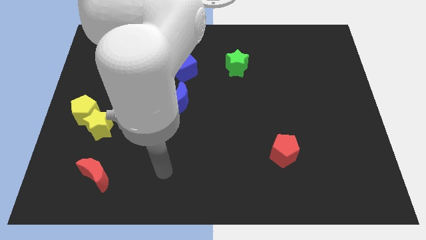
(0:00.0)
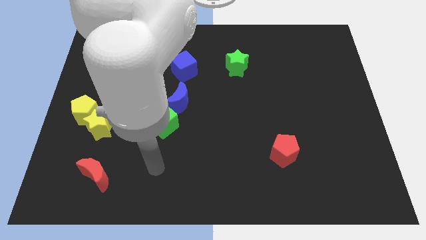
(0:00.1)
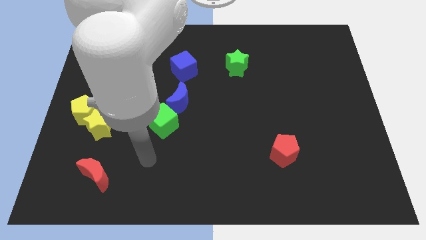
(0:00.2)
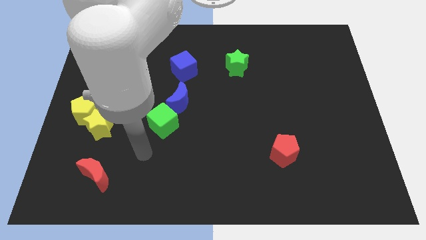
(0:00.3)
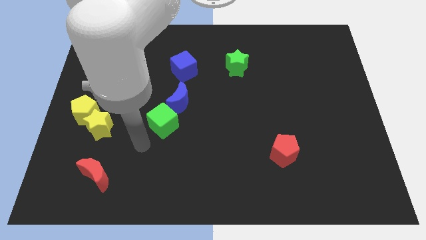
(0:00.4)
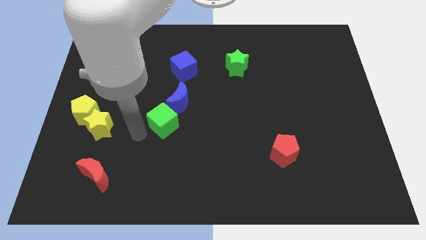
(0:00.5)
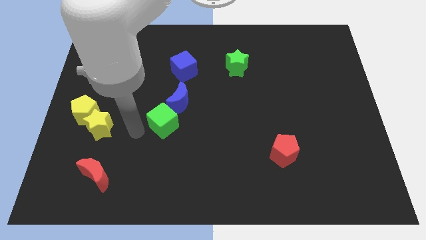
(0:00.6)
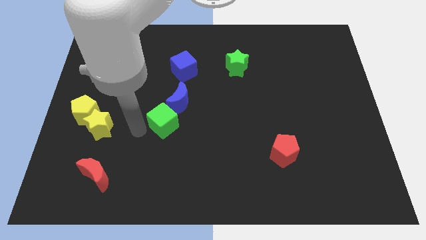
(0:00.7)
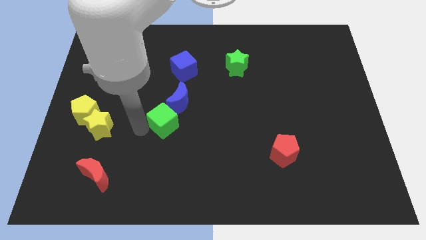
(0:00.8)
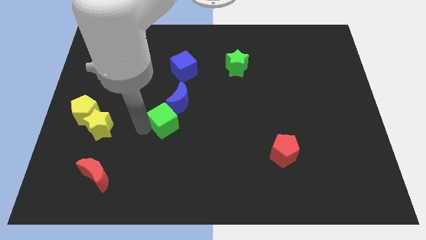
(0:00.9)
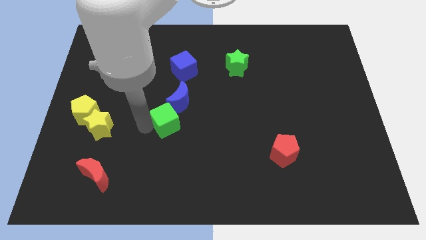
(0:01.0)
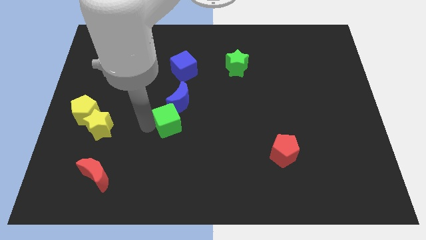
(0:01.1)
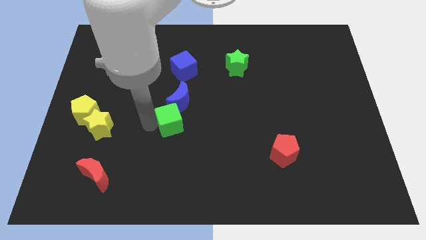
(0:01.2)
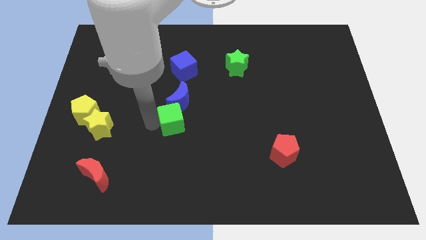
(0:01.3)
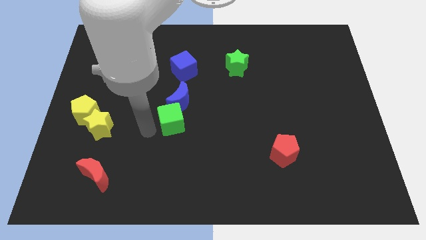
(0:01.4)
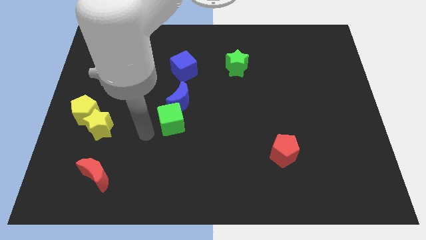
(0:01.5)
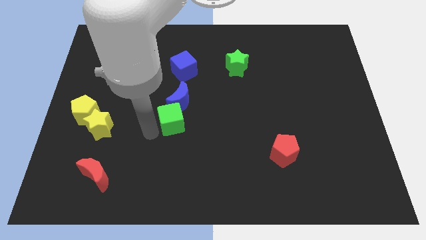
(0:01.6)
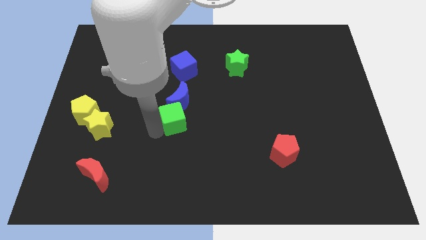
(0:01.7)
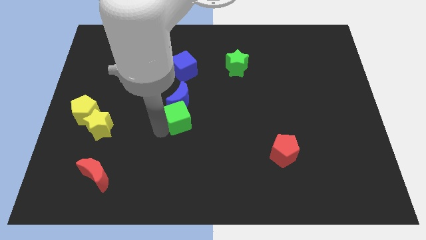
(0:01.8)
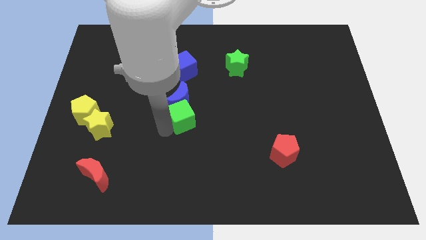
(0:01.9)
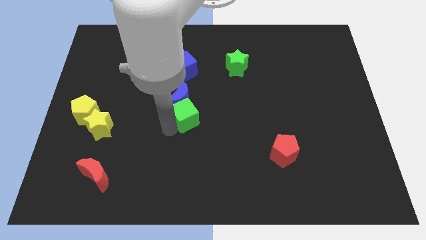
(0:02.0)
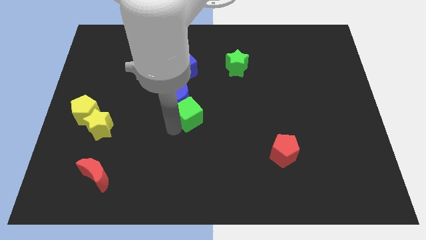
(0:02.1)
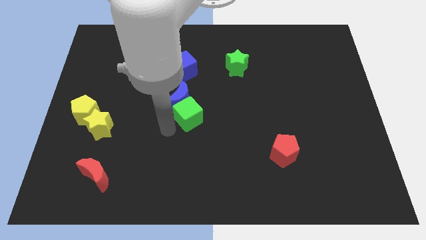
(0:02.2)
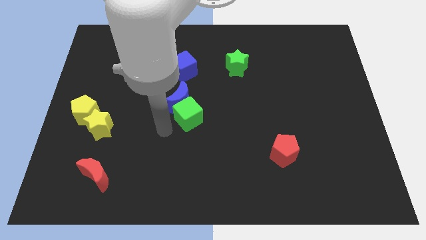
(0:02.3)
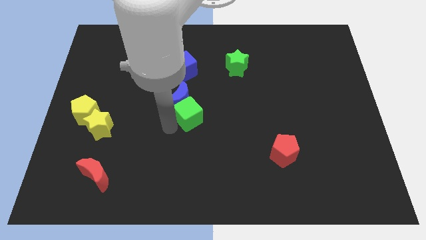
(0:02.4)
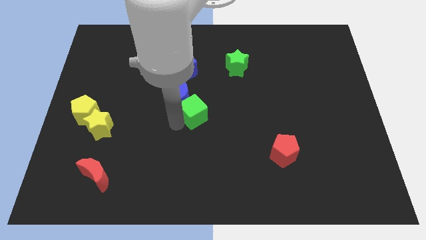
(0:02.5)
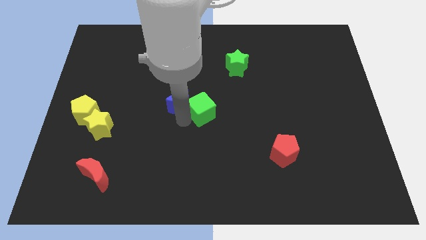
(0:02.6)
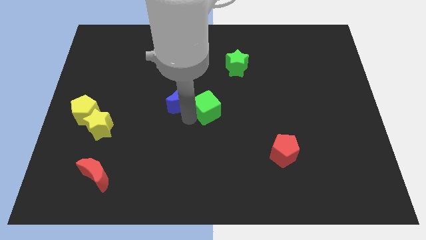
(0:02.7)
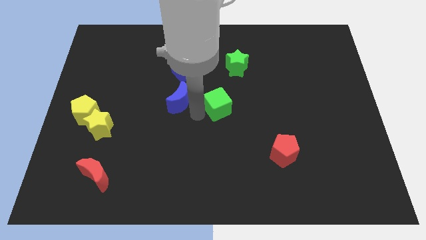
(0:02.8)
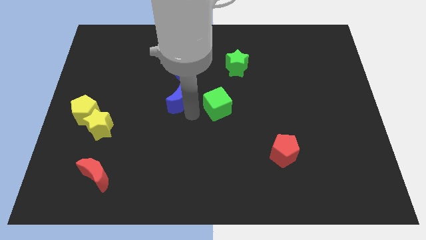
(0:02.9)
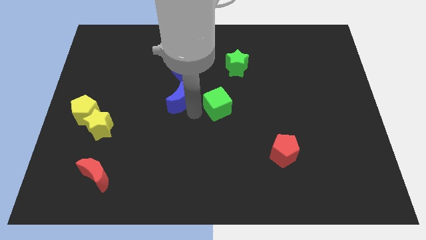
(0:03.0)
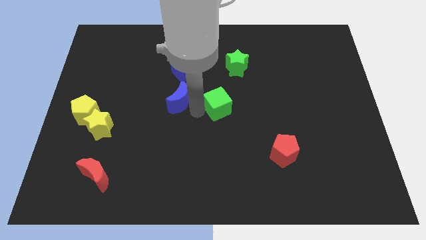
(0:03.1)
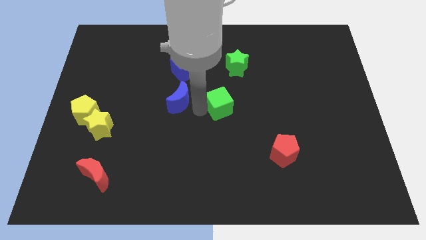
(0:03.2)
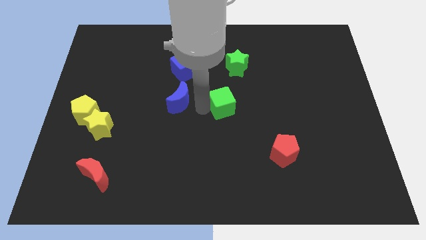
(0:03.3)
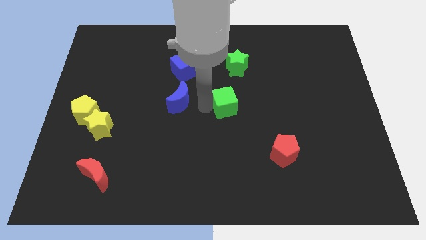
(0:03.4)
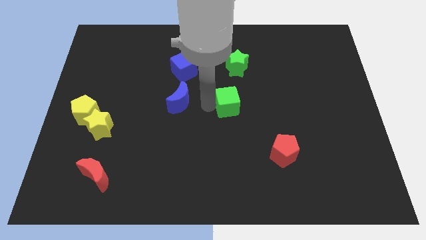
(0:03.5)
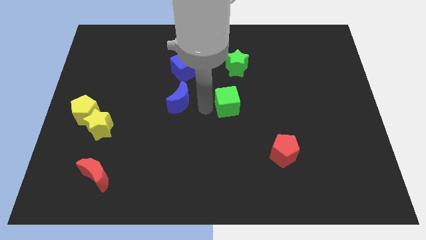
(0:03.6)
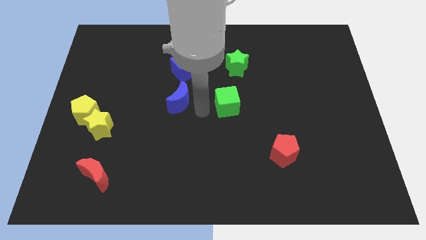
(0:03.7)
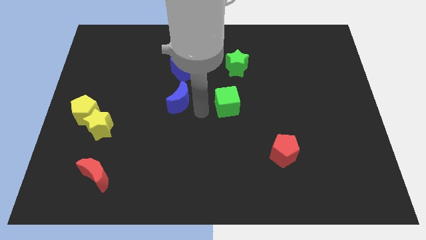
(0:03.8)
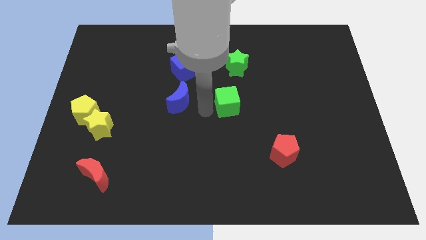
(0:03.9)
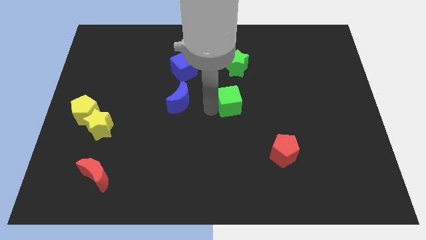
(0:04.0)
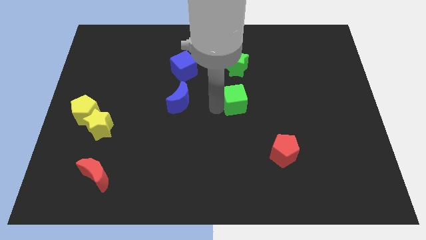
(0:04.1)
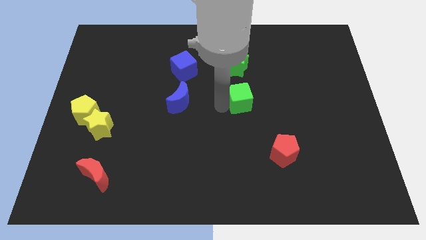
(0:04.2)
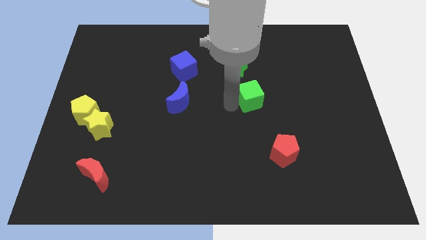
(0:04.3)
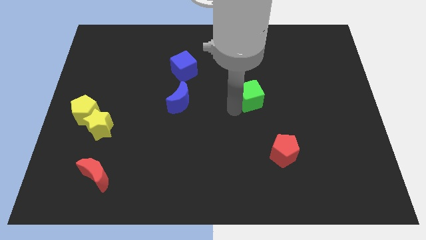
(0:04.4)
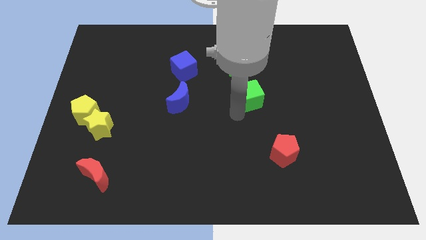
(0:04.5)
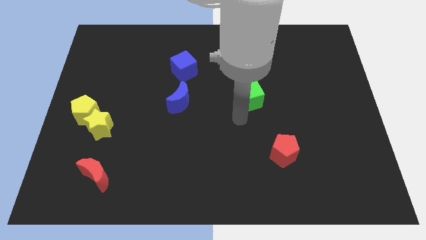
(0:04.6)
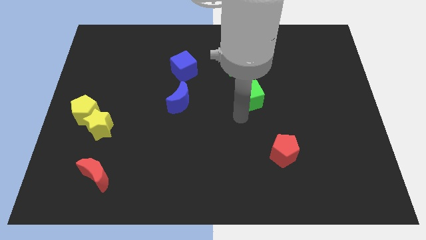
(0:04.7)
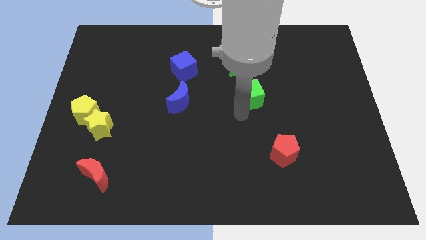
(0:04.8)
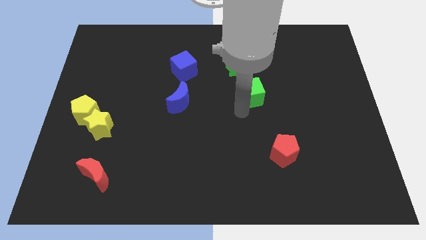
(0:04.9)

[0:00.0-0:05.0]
push the green cube to the bottom right side of the green star

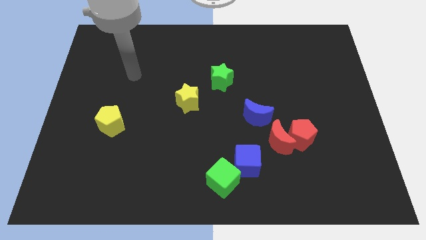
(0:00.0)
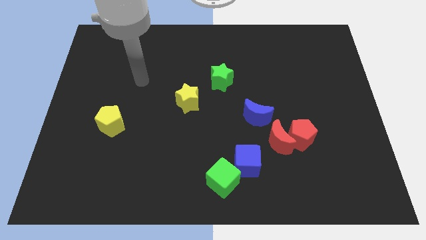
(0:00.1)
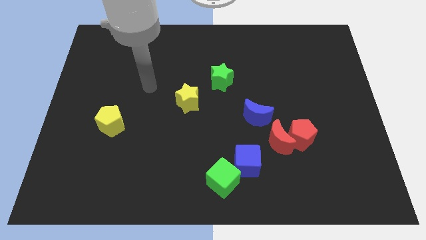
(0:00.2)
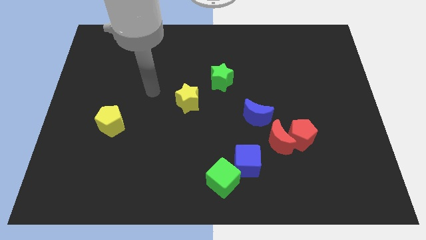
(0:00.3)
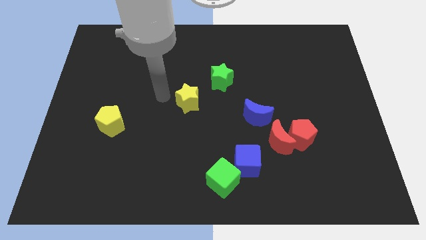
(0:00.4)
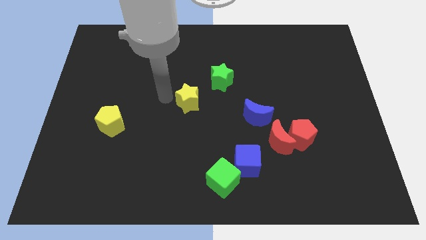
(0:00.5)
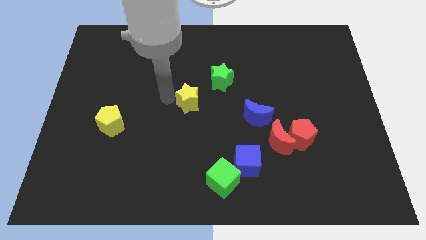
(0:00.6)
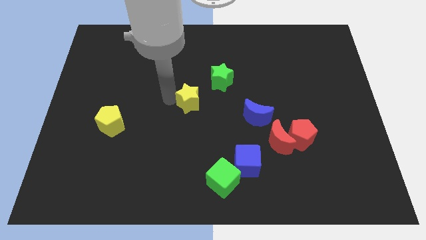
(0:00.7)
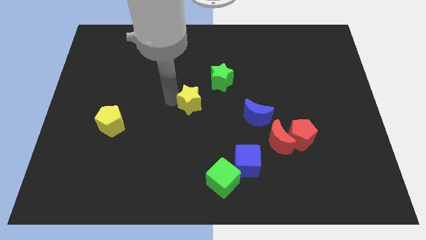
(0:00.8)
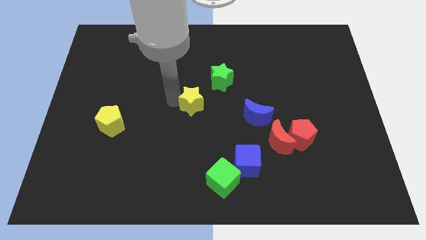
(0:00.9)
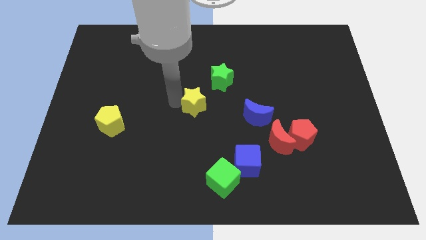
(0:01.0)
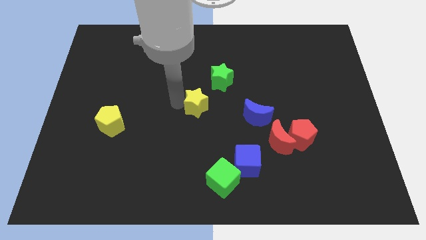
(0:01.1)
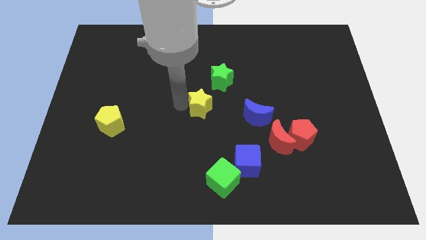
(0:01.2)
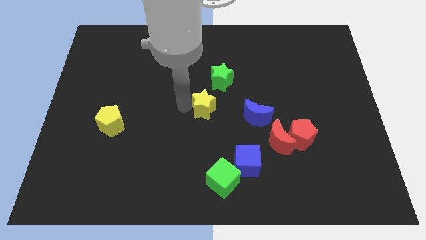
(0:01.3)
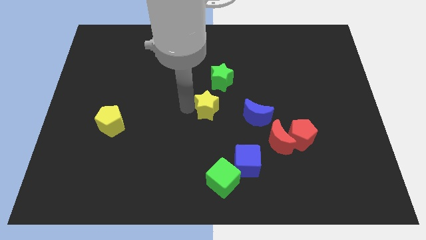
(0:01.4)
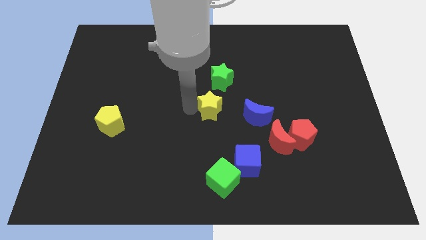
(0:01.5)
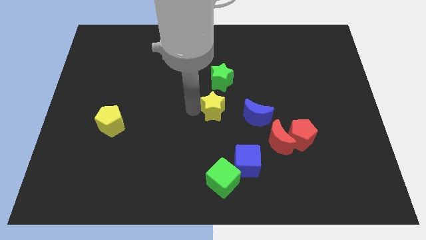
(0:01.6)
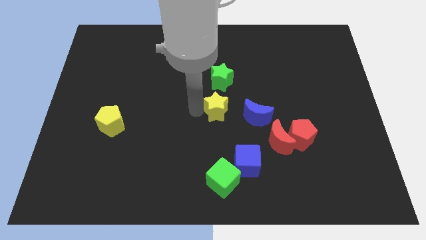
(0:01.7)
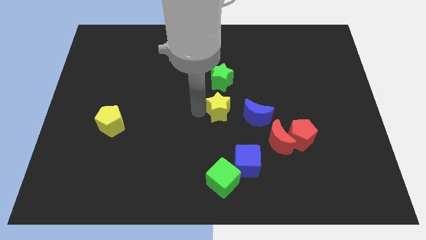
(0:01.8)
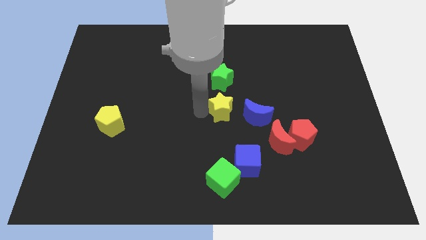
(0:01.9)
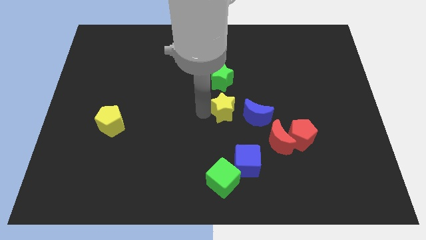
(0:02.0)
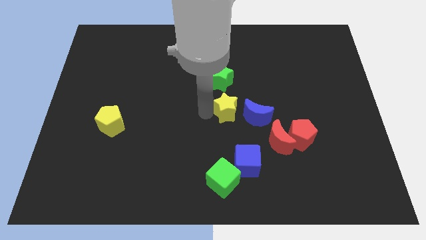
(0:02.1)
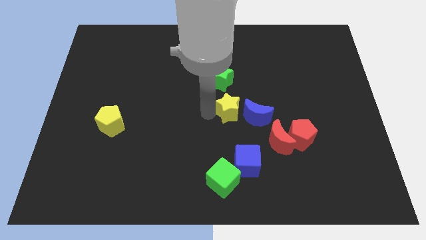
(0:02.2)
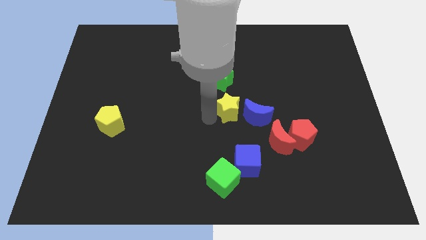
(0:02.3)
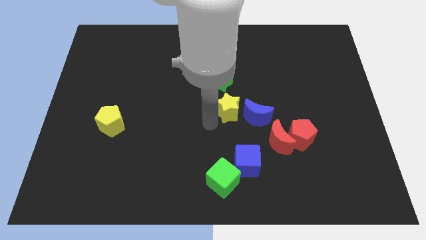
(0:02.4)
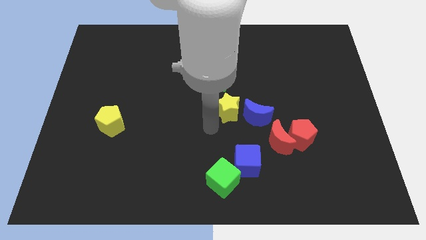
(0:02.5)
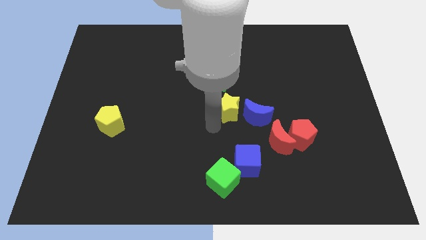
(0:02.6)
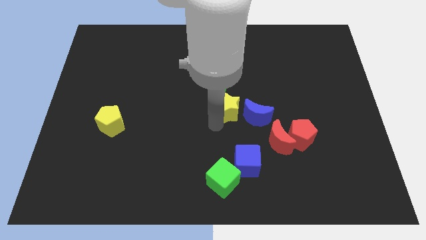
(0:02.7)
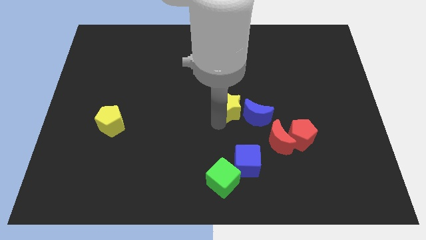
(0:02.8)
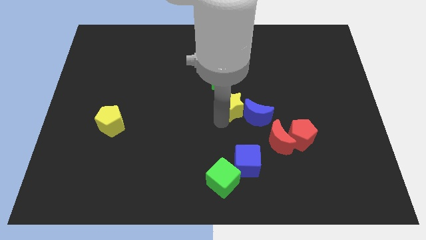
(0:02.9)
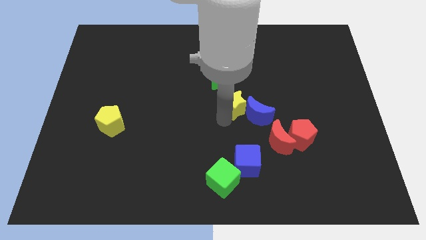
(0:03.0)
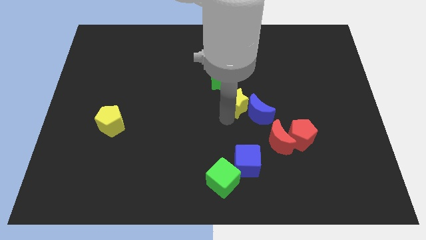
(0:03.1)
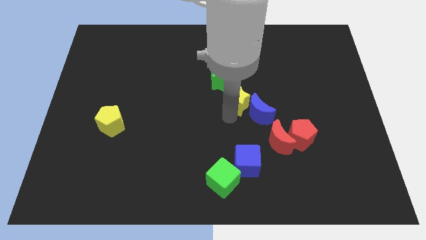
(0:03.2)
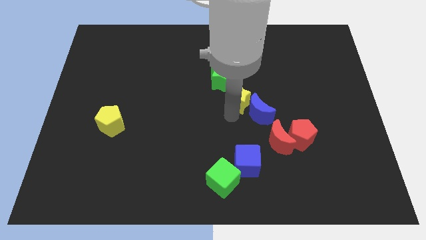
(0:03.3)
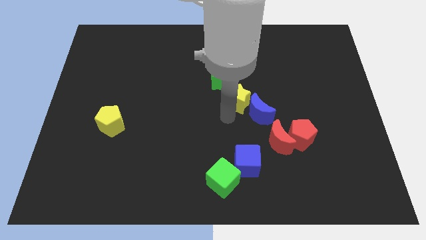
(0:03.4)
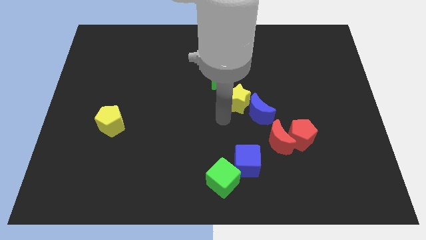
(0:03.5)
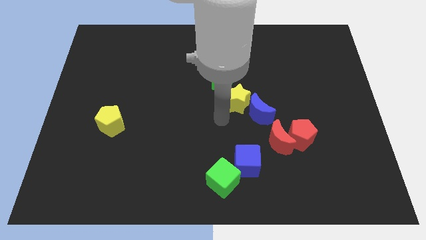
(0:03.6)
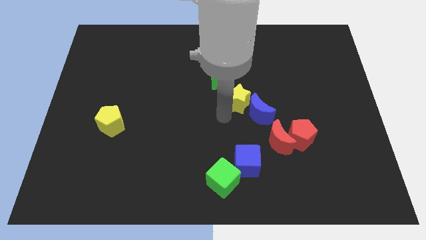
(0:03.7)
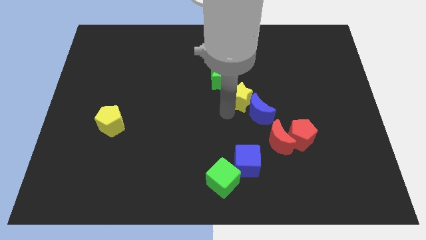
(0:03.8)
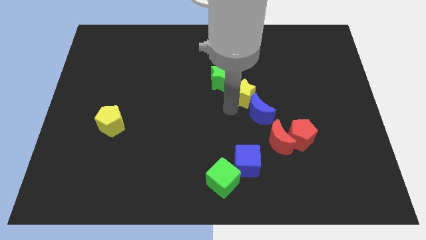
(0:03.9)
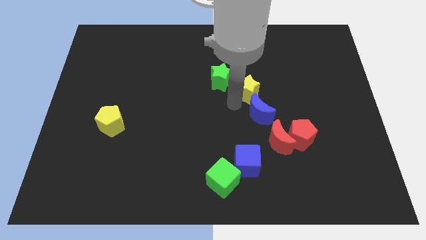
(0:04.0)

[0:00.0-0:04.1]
slide the yellow star right of the green star
